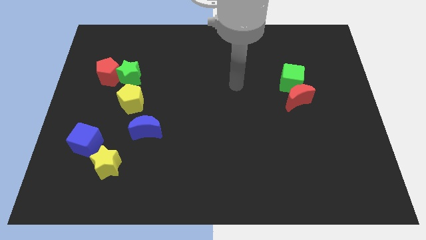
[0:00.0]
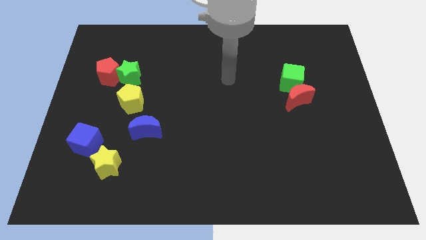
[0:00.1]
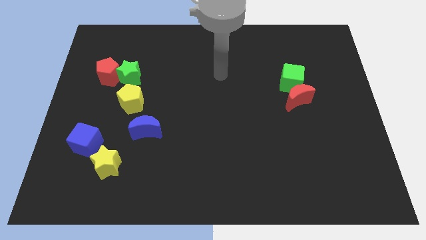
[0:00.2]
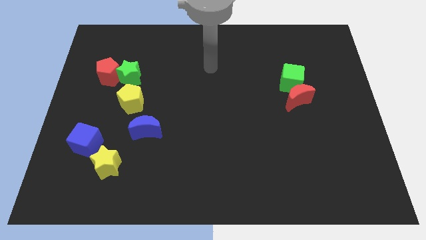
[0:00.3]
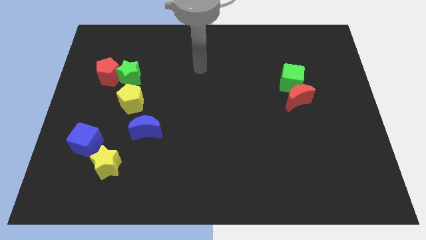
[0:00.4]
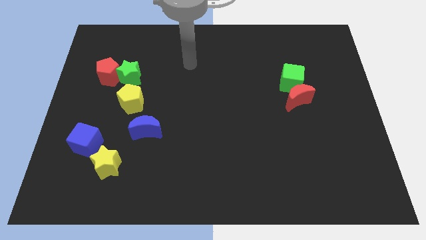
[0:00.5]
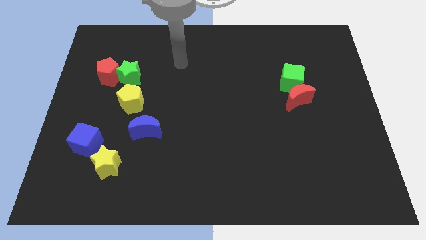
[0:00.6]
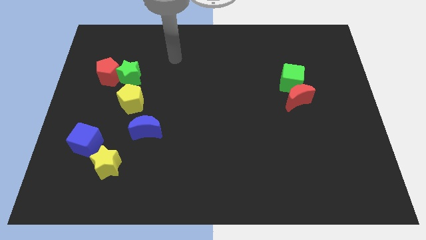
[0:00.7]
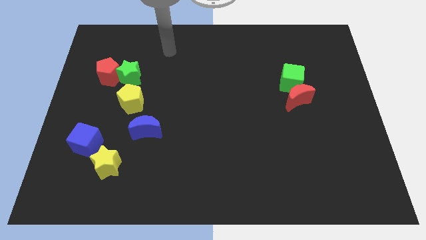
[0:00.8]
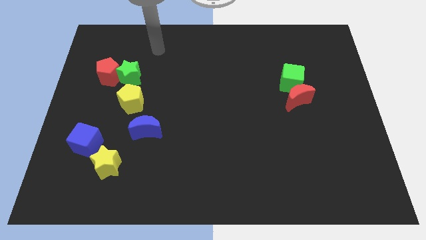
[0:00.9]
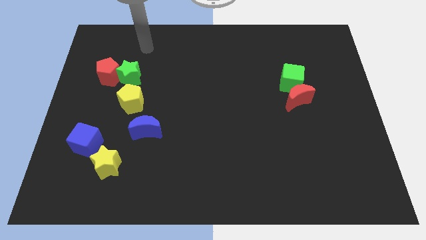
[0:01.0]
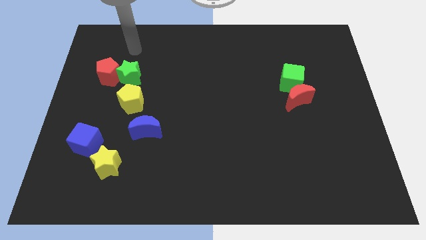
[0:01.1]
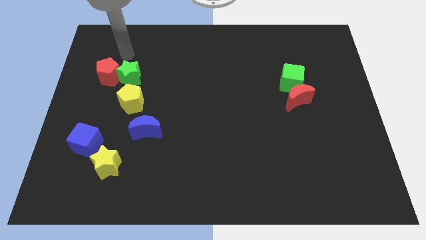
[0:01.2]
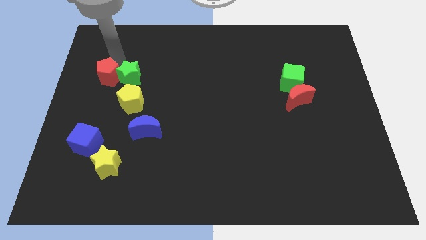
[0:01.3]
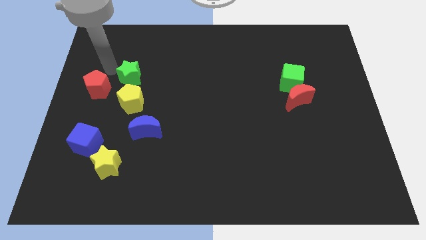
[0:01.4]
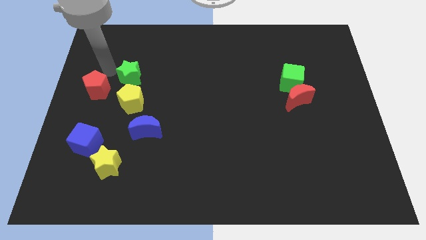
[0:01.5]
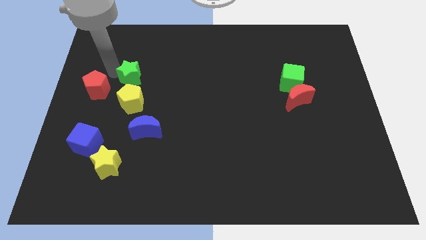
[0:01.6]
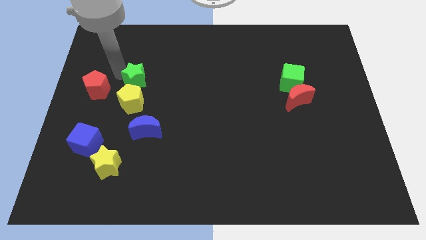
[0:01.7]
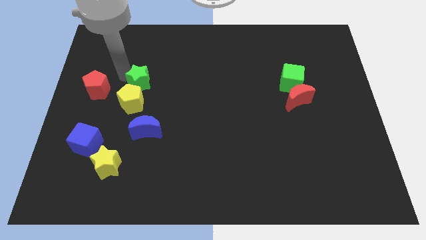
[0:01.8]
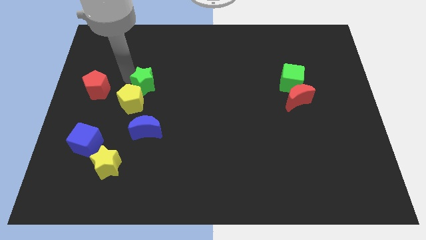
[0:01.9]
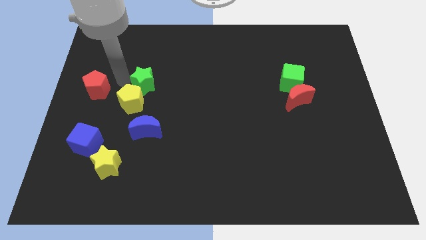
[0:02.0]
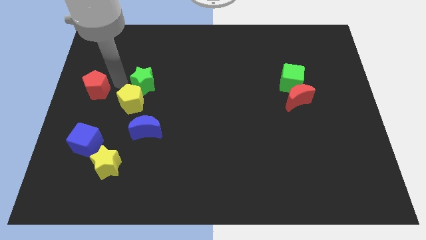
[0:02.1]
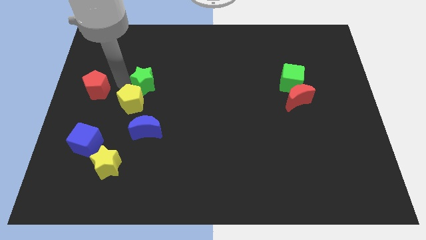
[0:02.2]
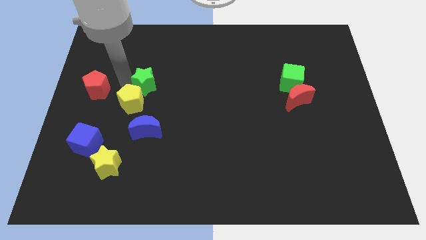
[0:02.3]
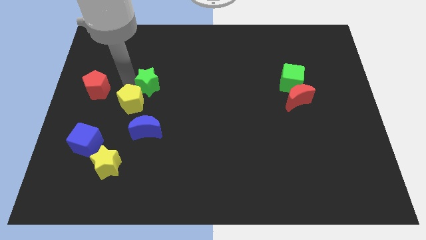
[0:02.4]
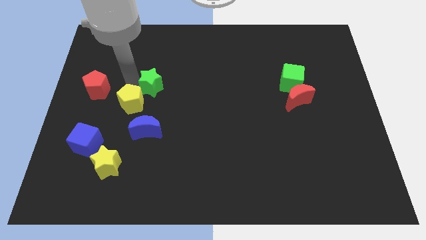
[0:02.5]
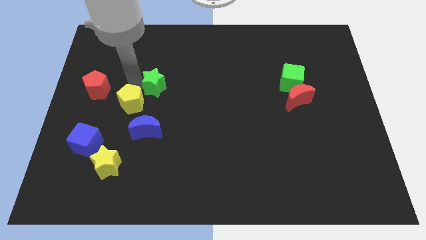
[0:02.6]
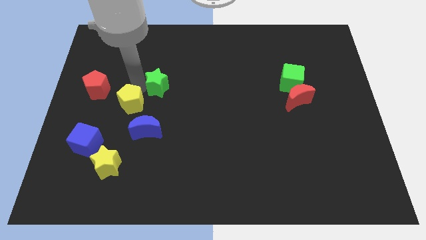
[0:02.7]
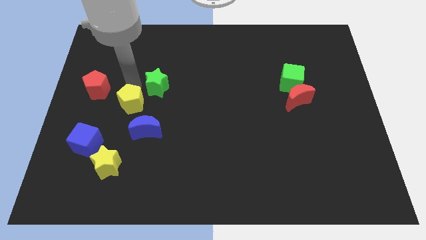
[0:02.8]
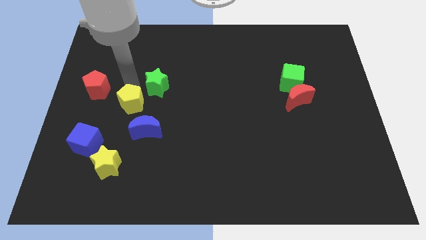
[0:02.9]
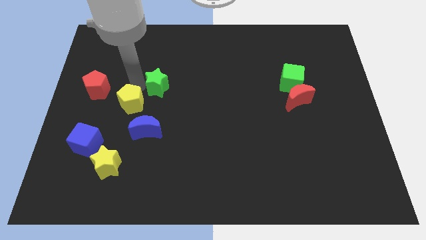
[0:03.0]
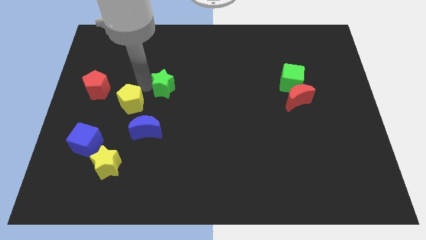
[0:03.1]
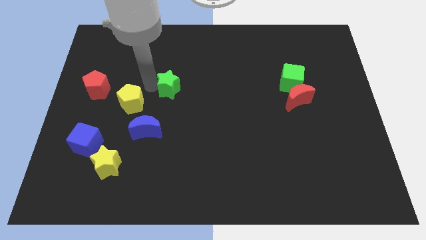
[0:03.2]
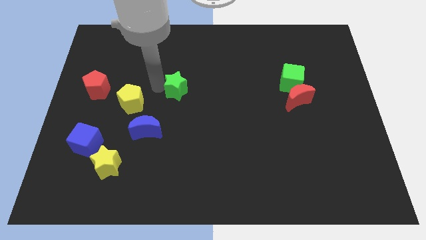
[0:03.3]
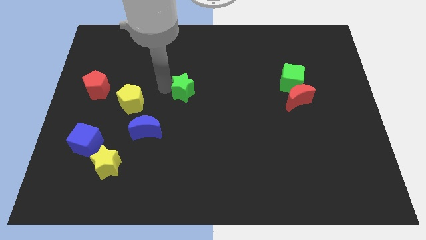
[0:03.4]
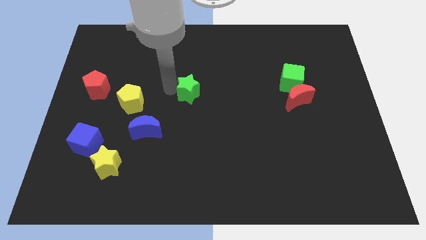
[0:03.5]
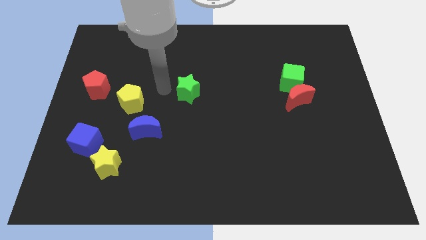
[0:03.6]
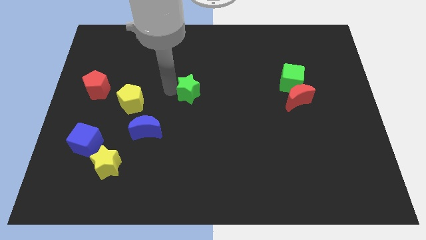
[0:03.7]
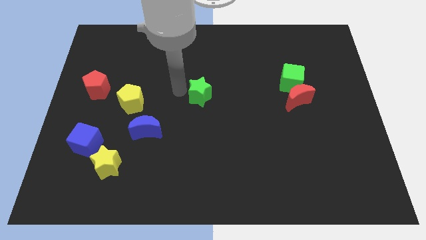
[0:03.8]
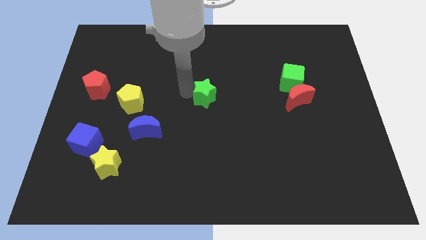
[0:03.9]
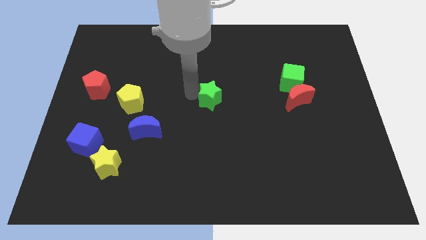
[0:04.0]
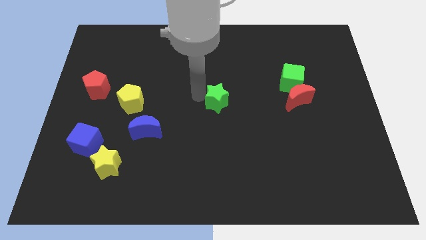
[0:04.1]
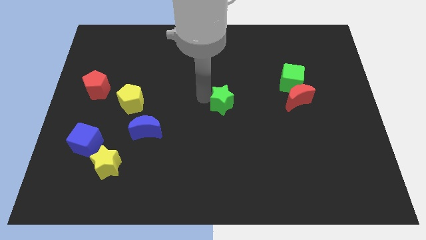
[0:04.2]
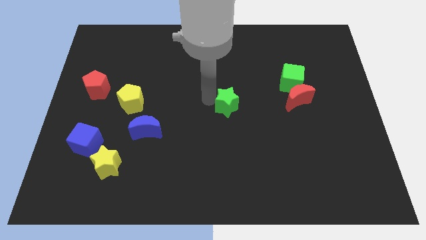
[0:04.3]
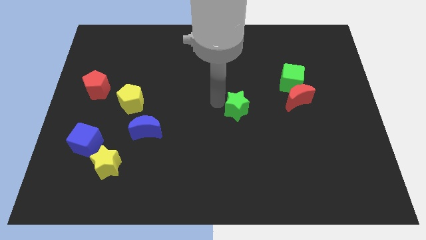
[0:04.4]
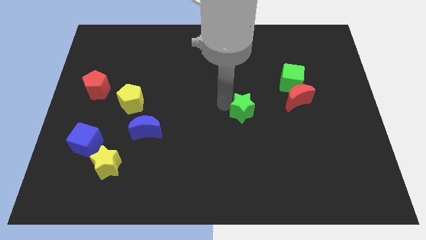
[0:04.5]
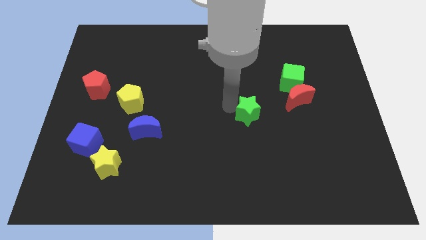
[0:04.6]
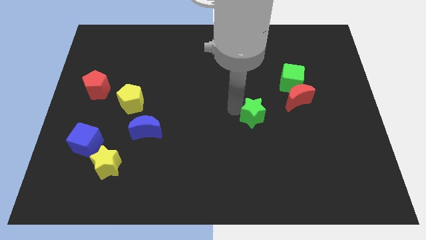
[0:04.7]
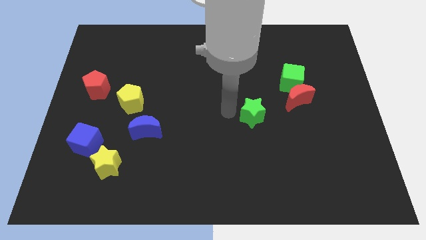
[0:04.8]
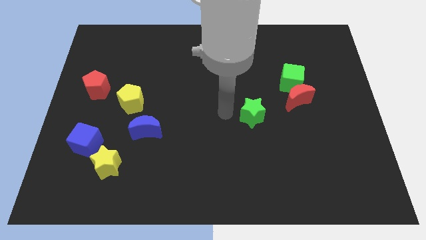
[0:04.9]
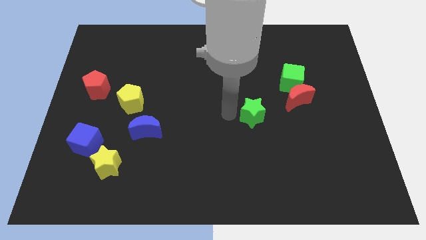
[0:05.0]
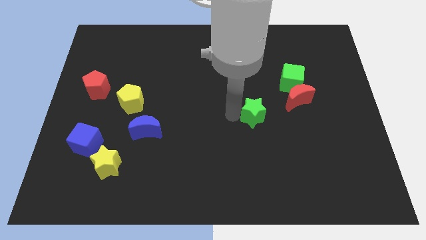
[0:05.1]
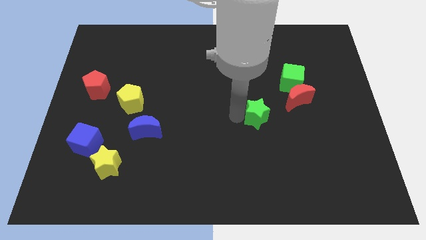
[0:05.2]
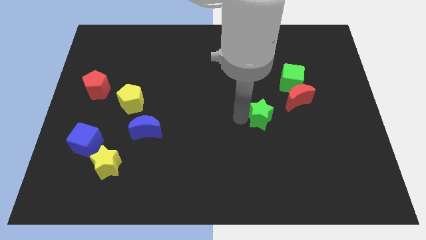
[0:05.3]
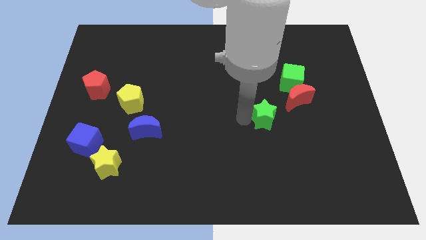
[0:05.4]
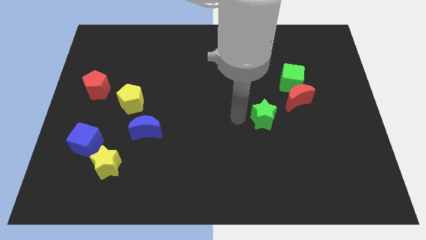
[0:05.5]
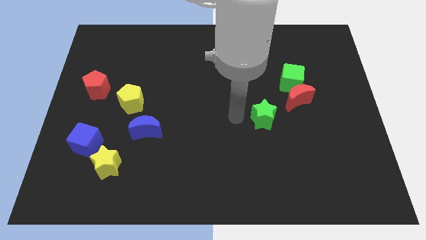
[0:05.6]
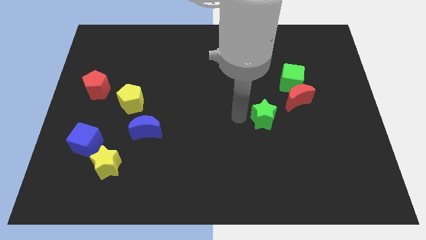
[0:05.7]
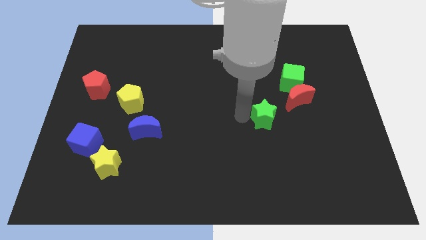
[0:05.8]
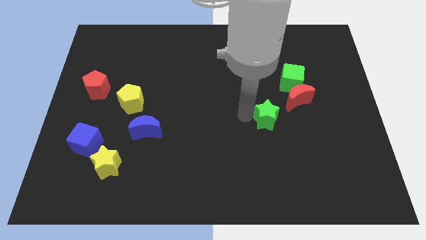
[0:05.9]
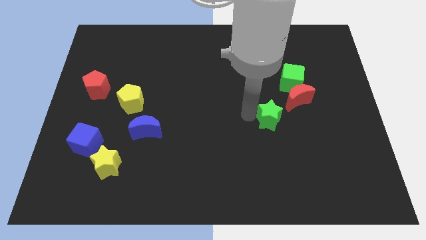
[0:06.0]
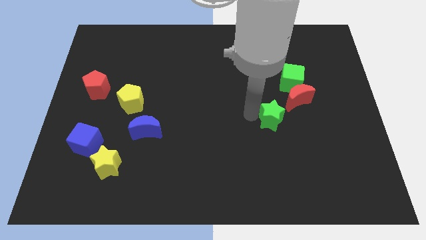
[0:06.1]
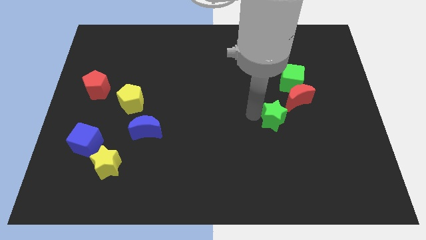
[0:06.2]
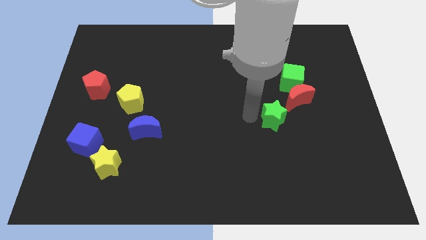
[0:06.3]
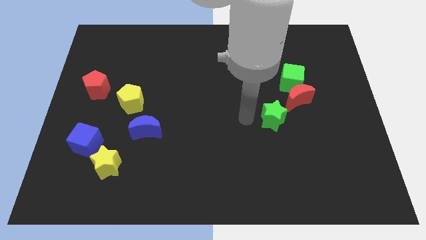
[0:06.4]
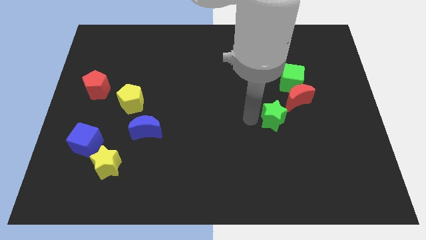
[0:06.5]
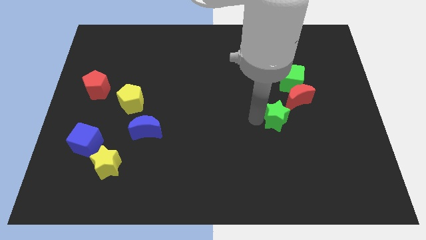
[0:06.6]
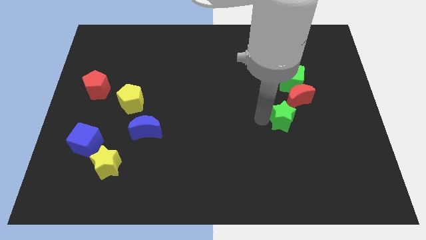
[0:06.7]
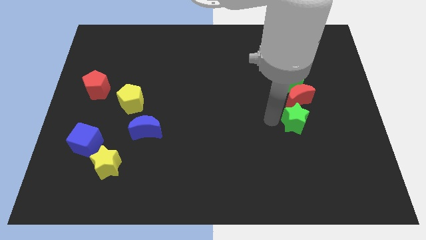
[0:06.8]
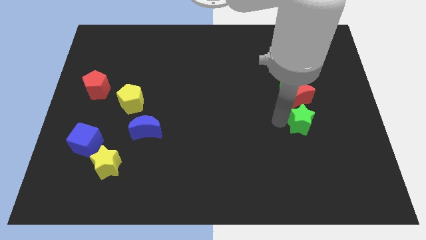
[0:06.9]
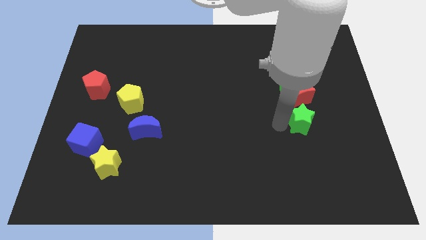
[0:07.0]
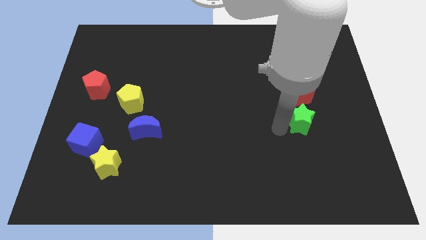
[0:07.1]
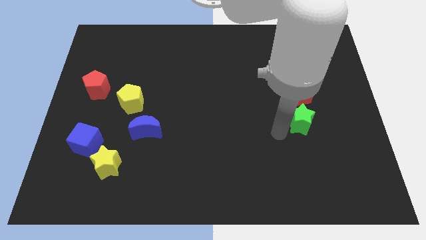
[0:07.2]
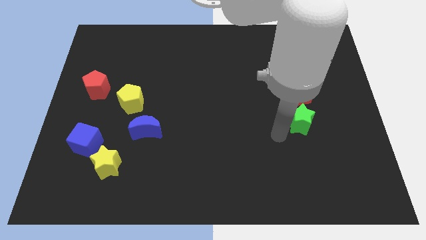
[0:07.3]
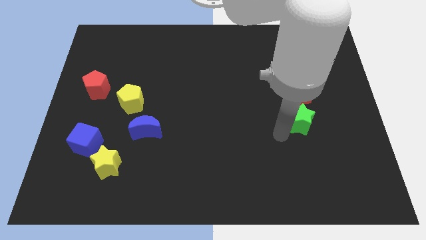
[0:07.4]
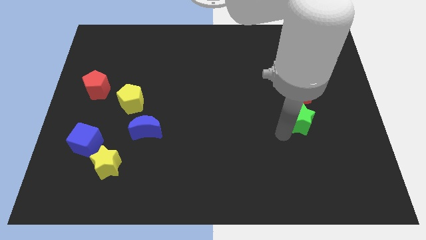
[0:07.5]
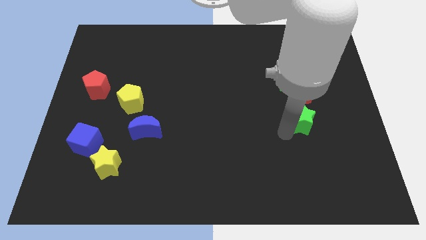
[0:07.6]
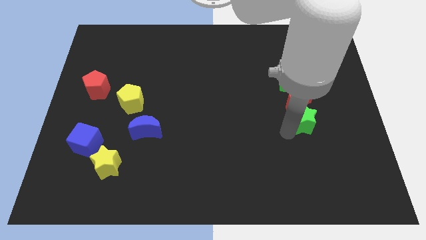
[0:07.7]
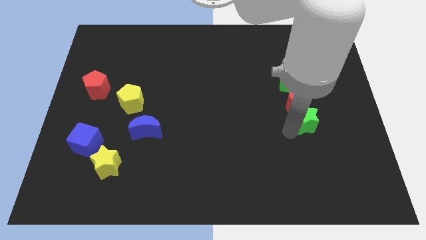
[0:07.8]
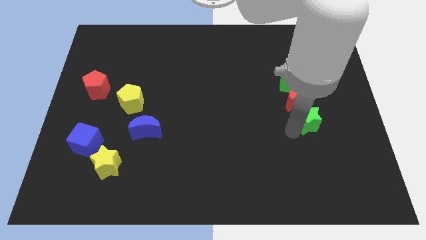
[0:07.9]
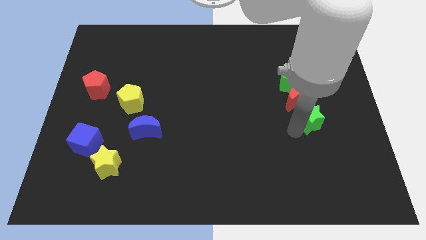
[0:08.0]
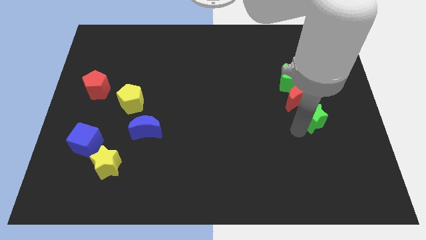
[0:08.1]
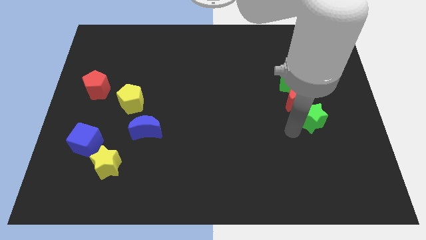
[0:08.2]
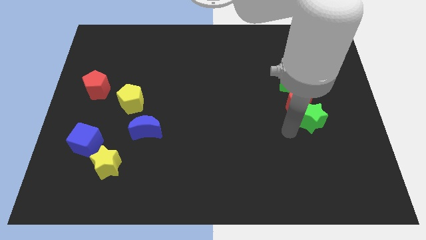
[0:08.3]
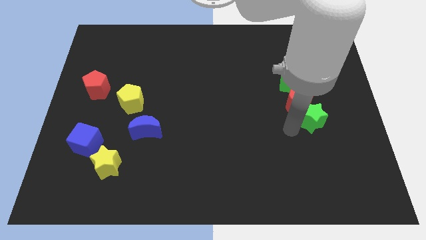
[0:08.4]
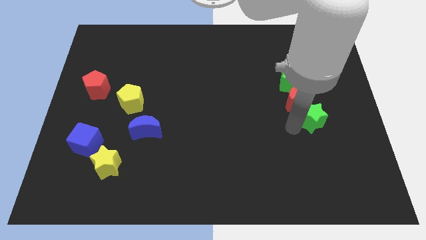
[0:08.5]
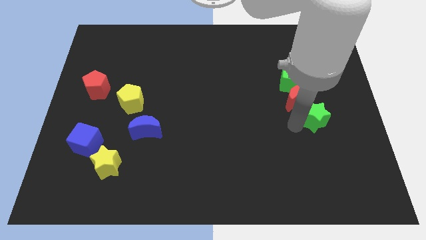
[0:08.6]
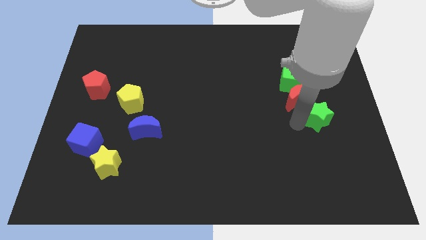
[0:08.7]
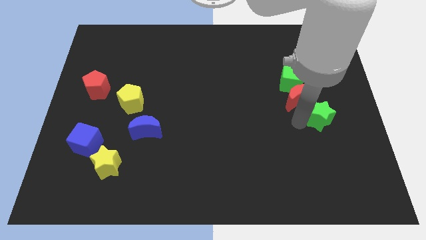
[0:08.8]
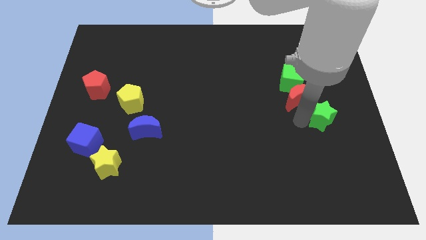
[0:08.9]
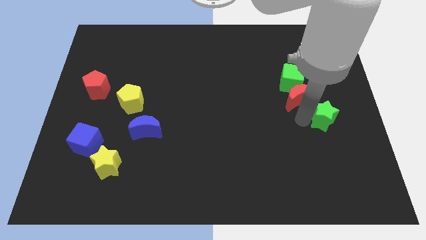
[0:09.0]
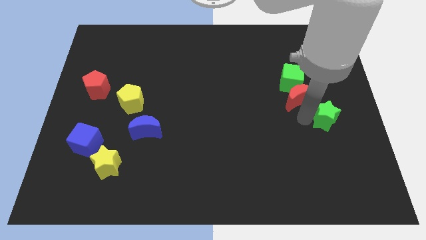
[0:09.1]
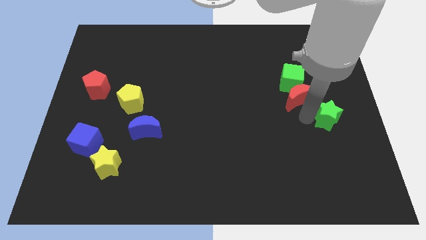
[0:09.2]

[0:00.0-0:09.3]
slide the green star to the right side of the board
